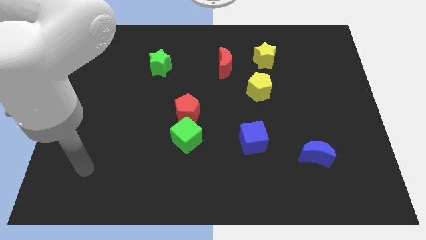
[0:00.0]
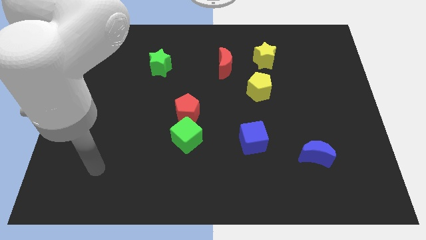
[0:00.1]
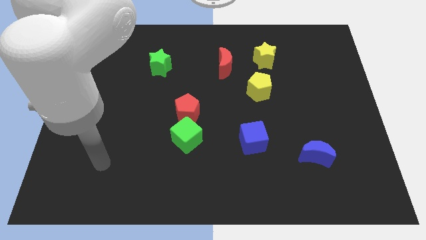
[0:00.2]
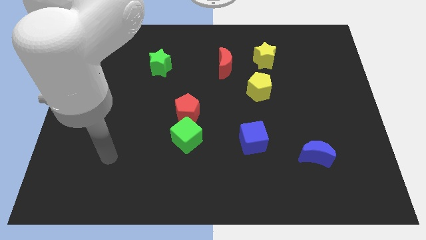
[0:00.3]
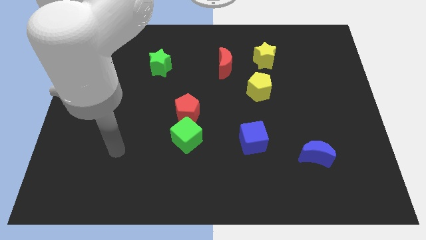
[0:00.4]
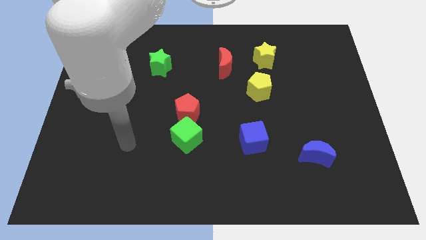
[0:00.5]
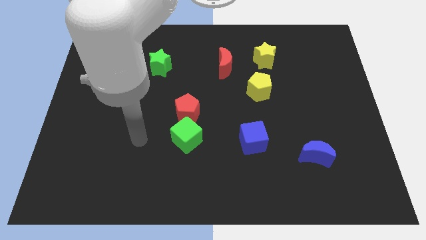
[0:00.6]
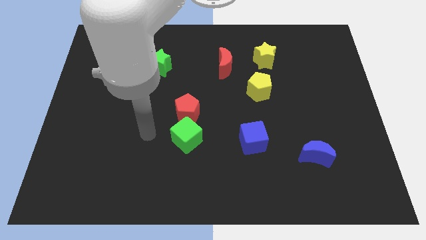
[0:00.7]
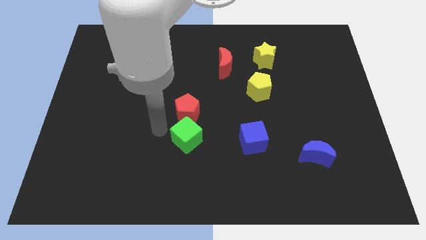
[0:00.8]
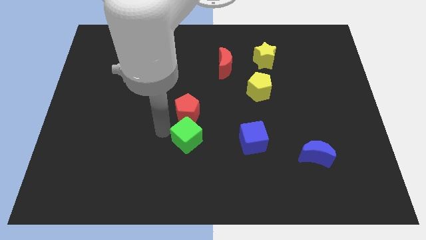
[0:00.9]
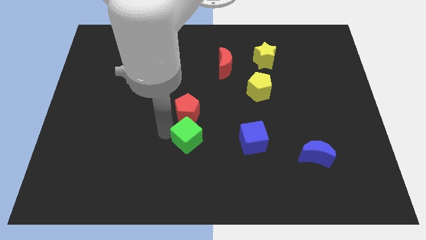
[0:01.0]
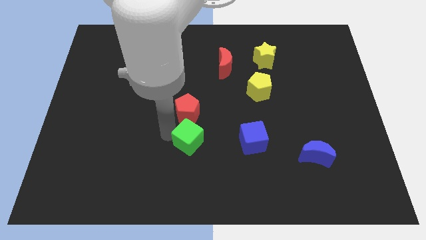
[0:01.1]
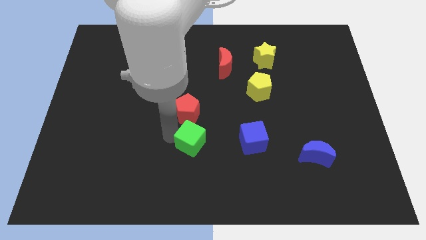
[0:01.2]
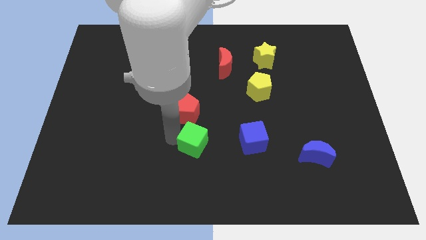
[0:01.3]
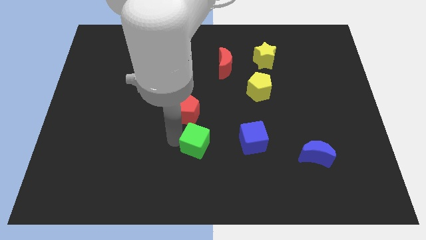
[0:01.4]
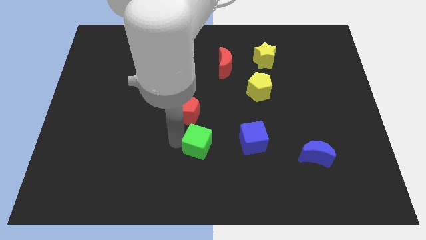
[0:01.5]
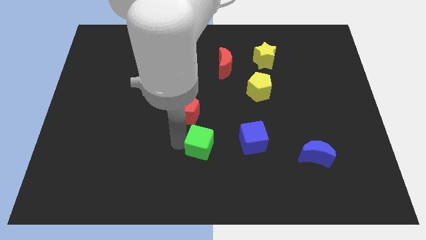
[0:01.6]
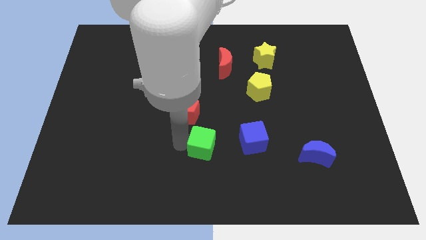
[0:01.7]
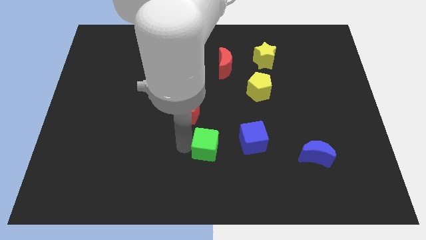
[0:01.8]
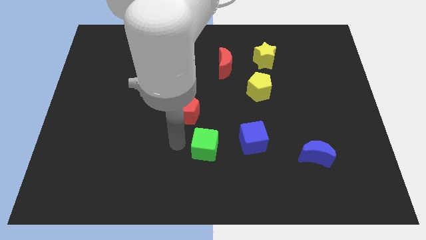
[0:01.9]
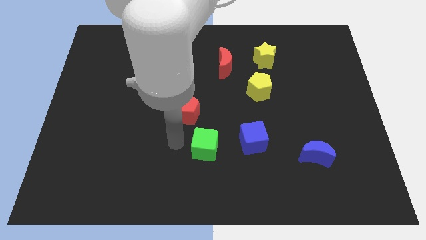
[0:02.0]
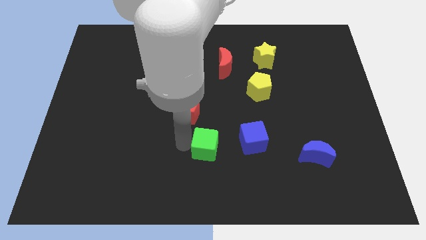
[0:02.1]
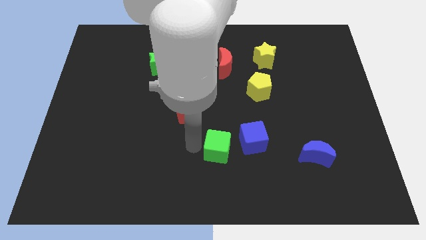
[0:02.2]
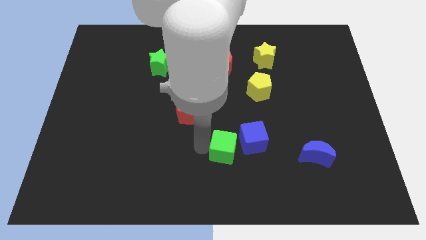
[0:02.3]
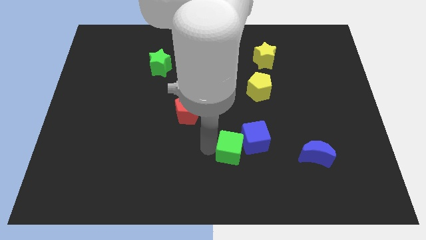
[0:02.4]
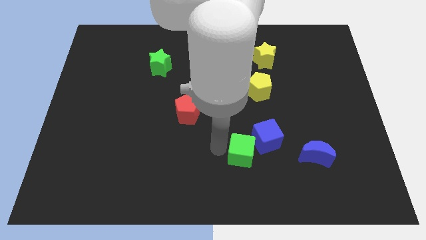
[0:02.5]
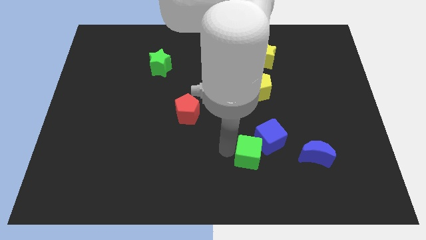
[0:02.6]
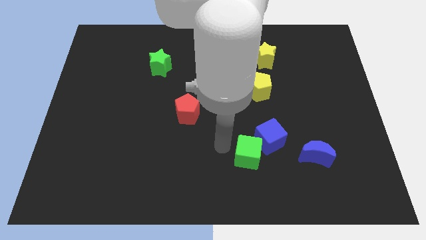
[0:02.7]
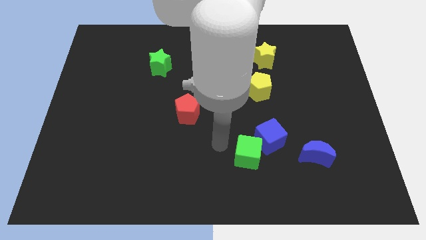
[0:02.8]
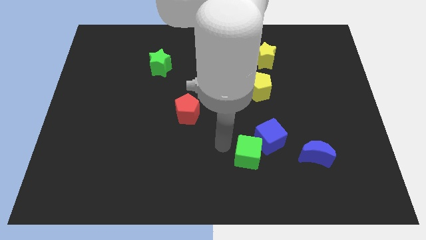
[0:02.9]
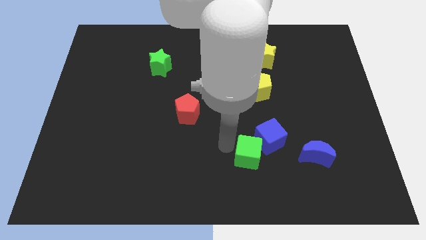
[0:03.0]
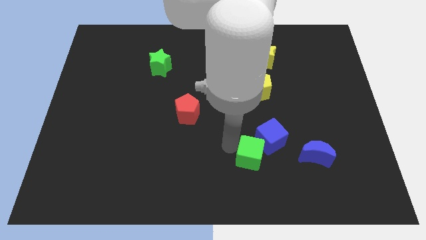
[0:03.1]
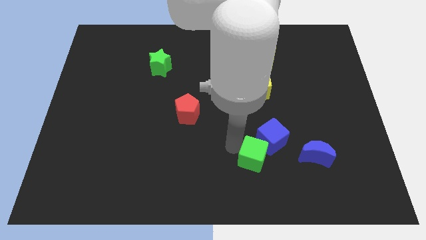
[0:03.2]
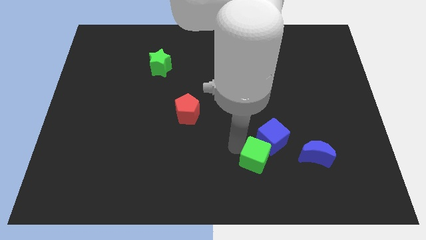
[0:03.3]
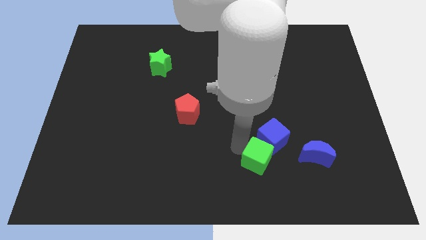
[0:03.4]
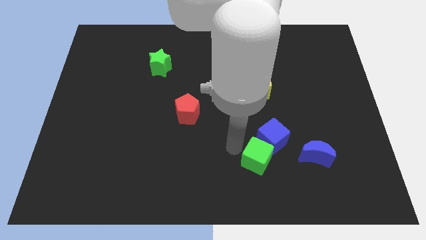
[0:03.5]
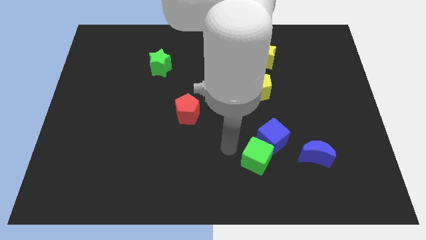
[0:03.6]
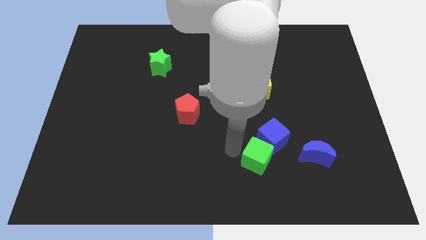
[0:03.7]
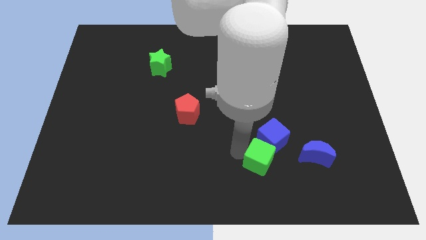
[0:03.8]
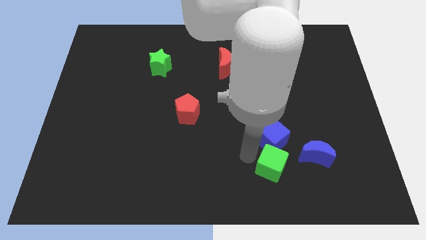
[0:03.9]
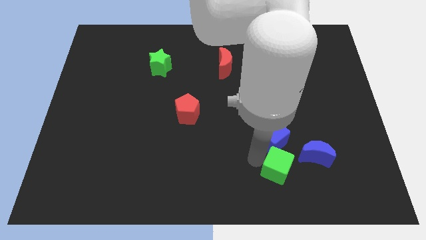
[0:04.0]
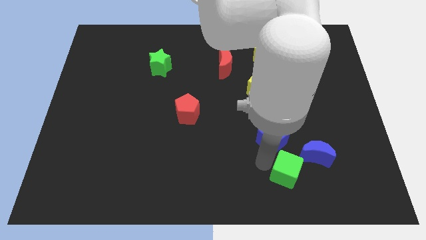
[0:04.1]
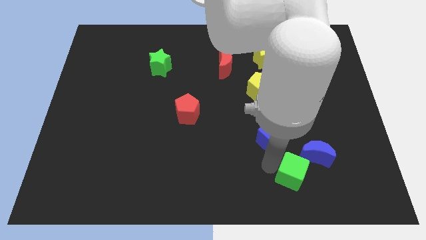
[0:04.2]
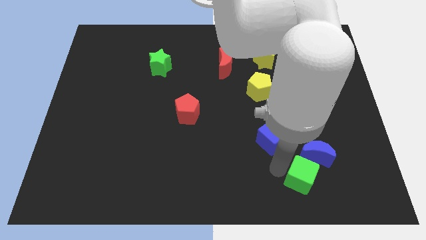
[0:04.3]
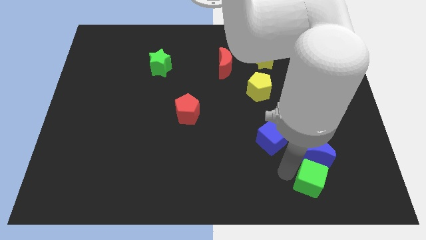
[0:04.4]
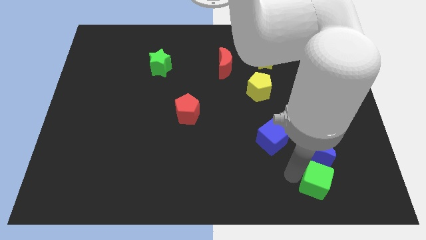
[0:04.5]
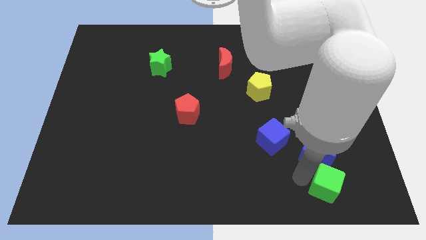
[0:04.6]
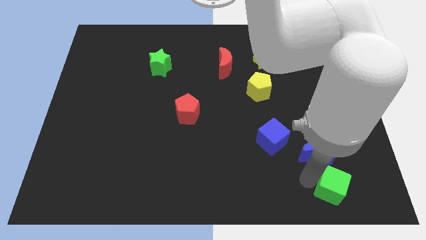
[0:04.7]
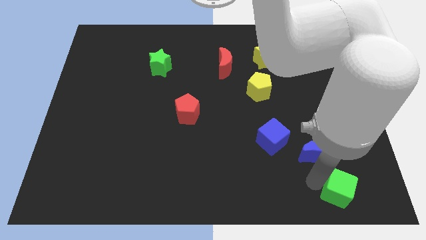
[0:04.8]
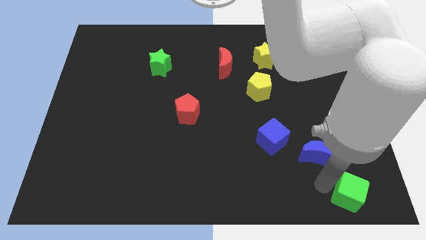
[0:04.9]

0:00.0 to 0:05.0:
move the green cube to the bottom right

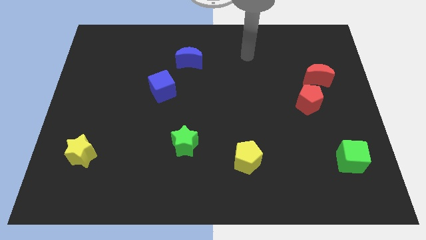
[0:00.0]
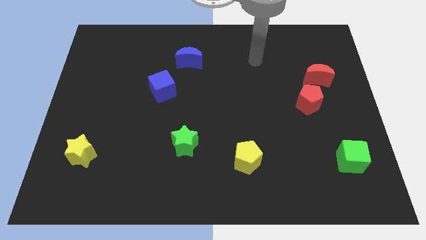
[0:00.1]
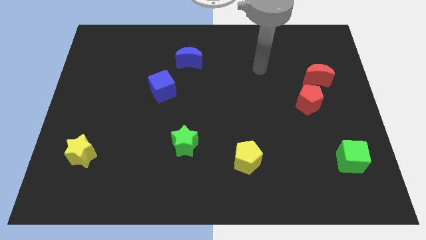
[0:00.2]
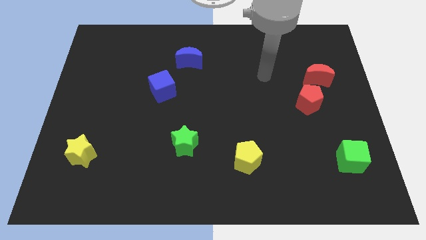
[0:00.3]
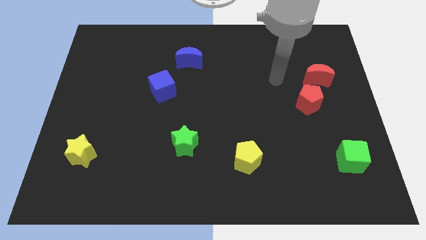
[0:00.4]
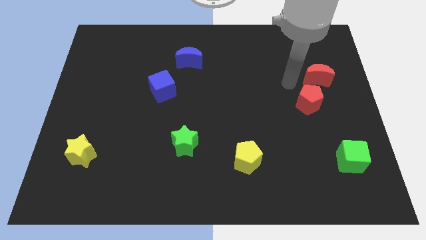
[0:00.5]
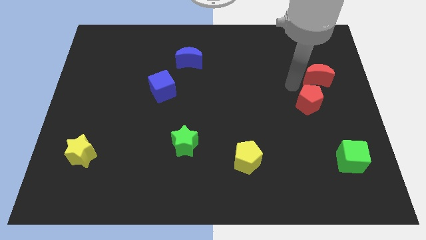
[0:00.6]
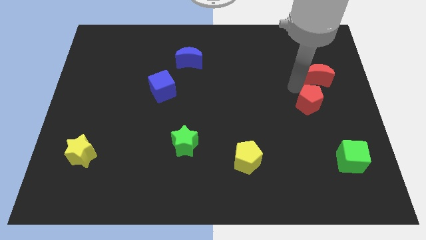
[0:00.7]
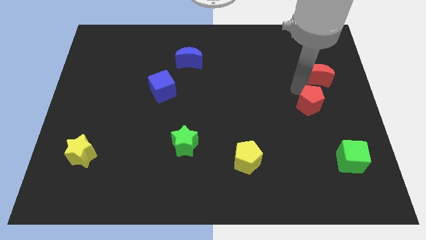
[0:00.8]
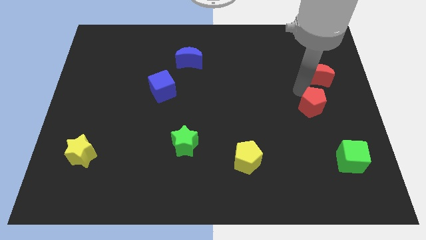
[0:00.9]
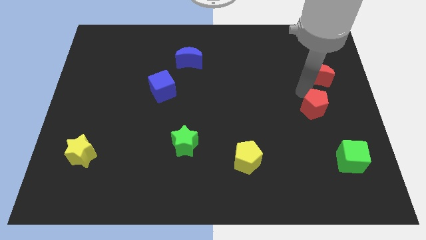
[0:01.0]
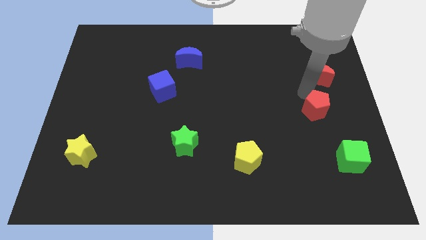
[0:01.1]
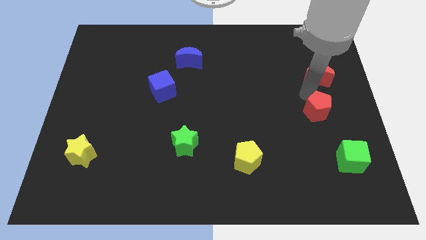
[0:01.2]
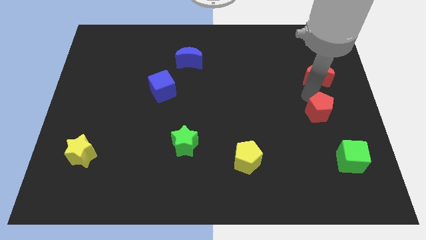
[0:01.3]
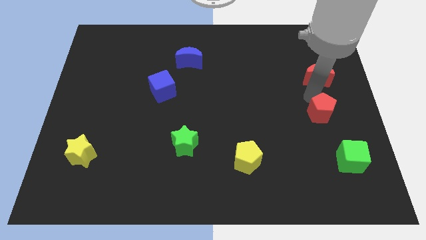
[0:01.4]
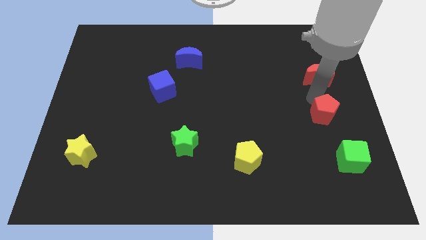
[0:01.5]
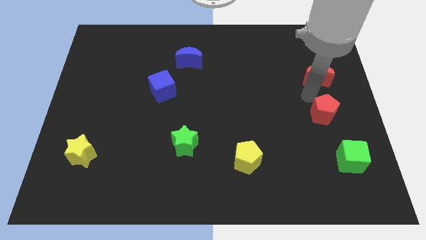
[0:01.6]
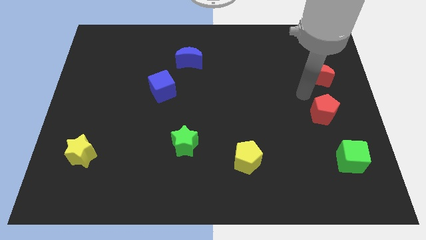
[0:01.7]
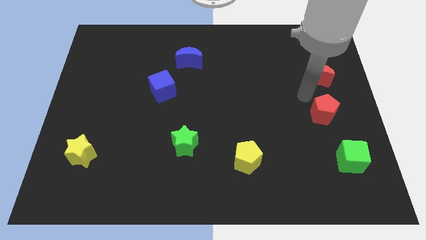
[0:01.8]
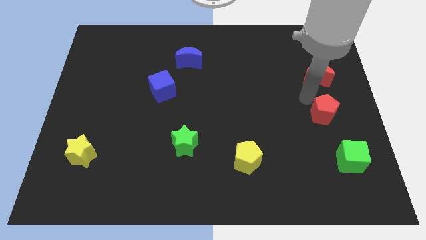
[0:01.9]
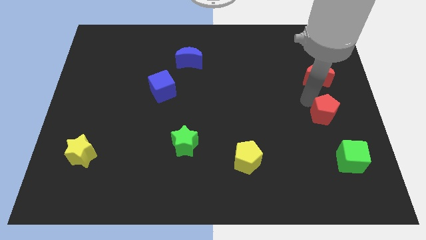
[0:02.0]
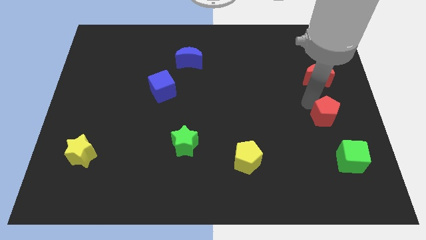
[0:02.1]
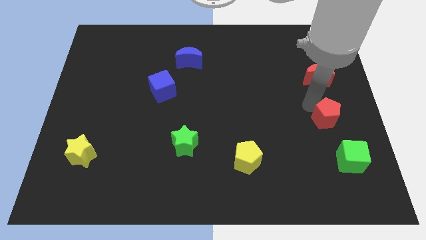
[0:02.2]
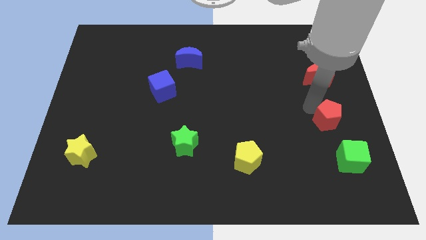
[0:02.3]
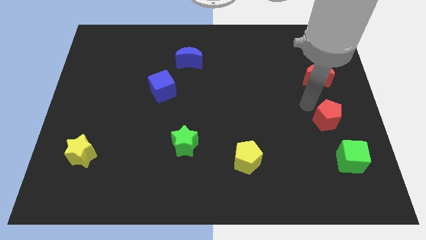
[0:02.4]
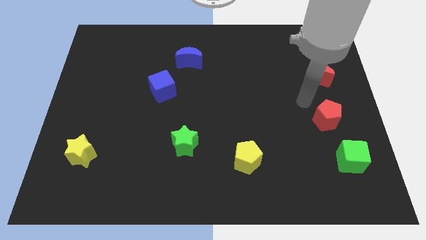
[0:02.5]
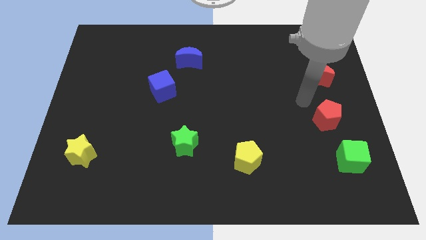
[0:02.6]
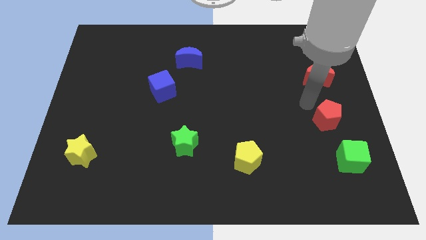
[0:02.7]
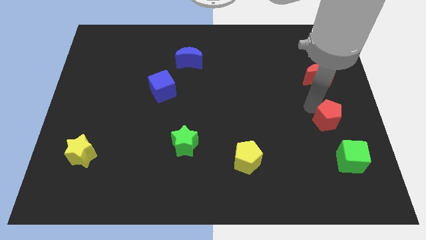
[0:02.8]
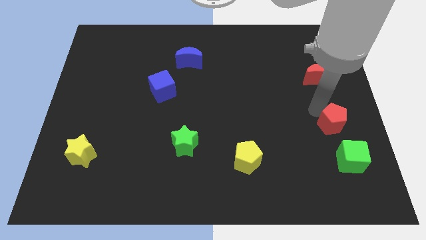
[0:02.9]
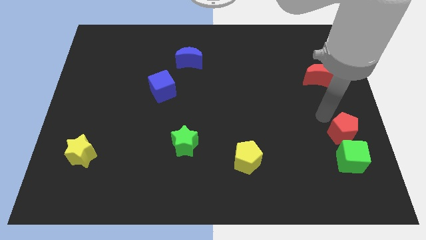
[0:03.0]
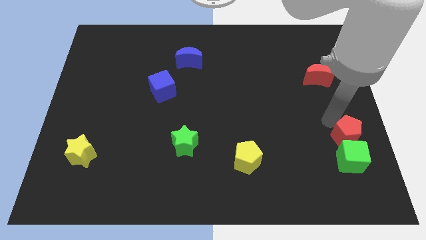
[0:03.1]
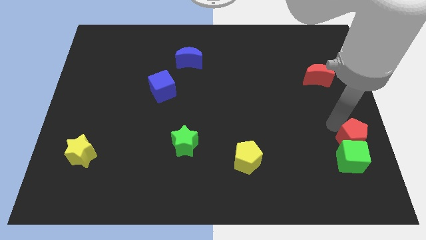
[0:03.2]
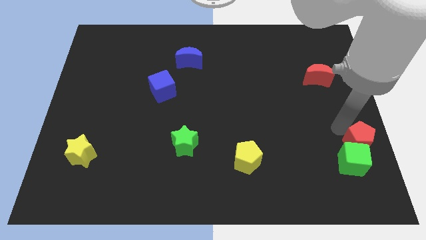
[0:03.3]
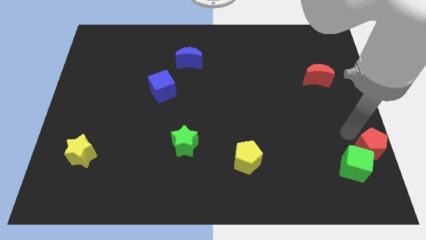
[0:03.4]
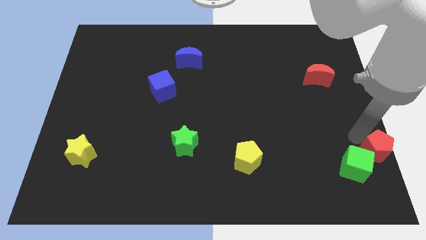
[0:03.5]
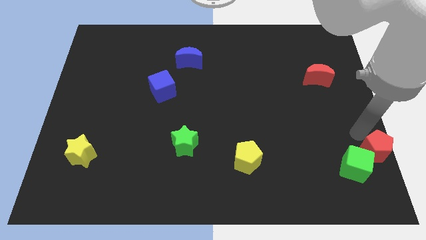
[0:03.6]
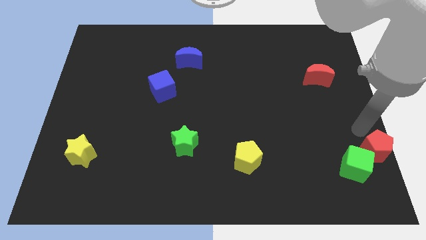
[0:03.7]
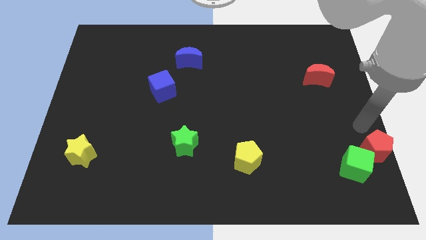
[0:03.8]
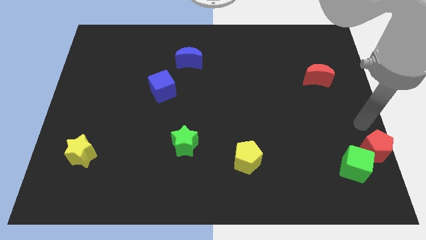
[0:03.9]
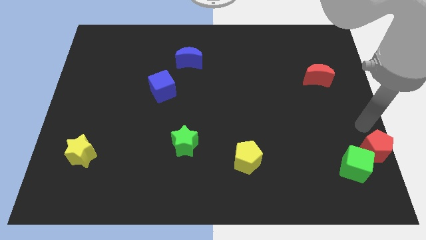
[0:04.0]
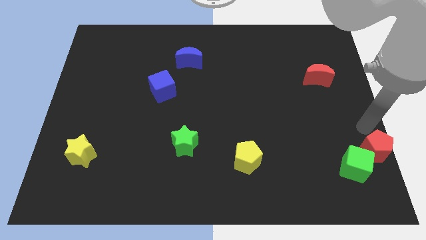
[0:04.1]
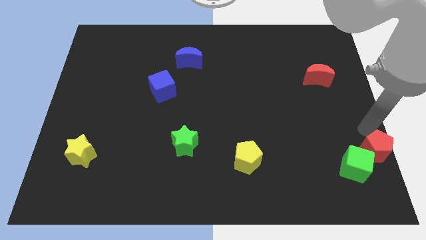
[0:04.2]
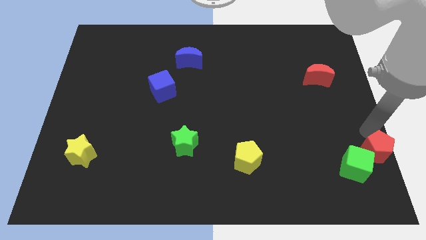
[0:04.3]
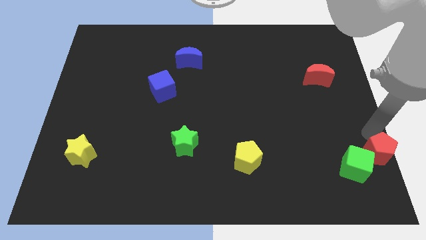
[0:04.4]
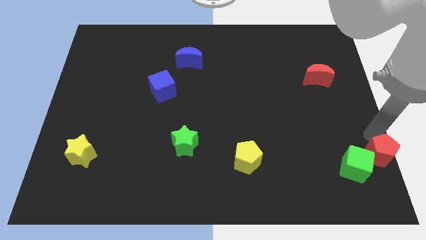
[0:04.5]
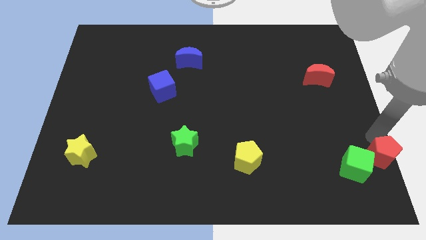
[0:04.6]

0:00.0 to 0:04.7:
push the red pentagon to the bottom right corner
